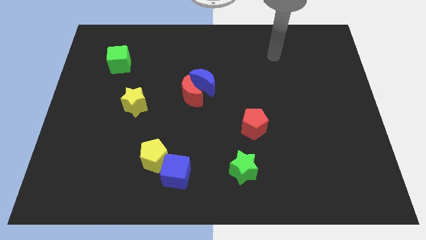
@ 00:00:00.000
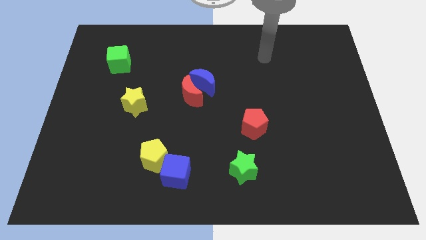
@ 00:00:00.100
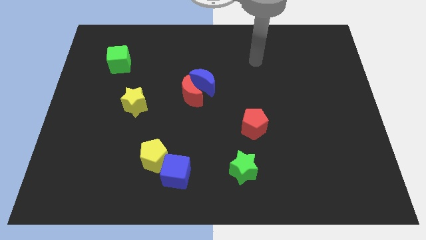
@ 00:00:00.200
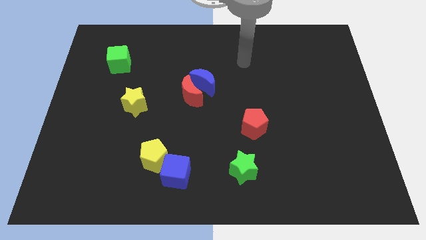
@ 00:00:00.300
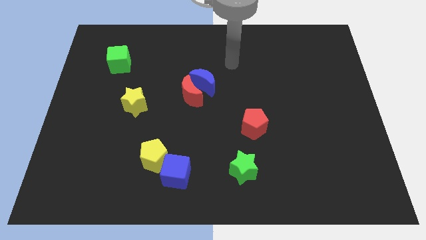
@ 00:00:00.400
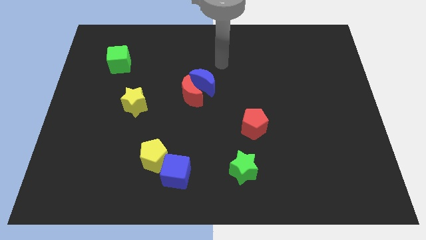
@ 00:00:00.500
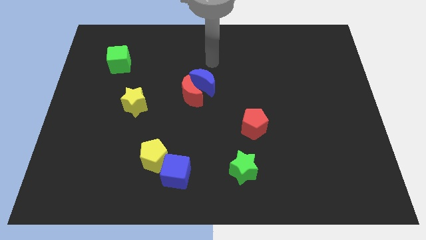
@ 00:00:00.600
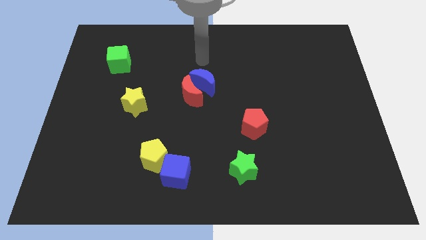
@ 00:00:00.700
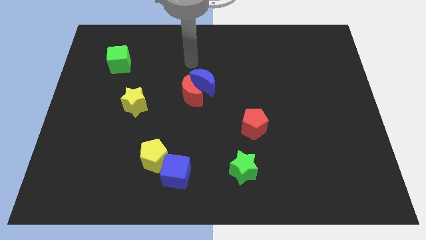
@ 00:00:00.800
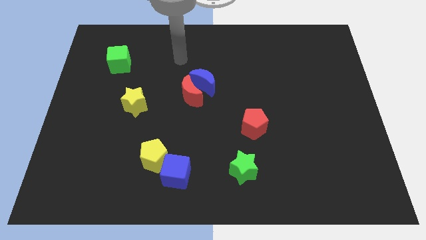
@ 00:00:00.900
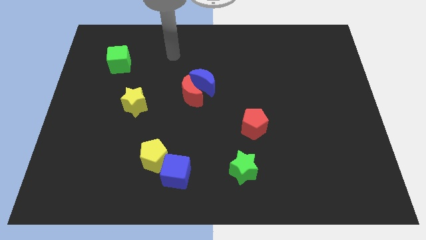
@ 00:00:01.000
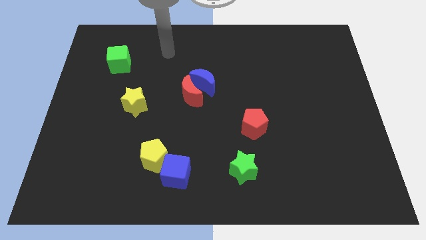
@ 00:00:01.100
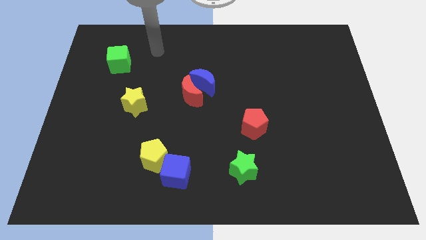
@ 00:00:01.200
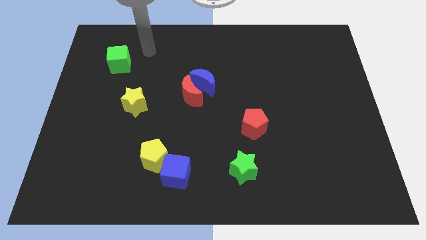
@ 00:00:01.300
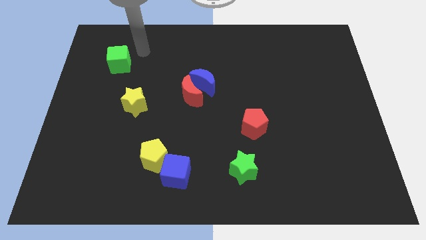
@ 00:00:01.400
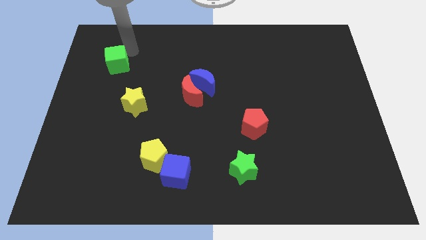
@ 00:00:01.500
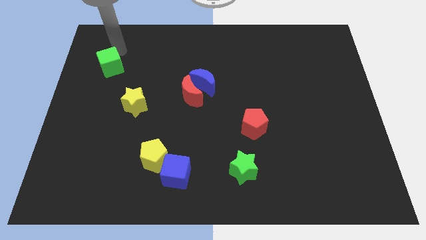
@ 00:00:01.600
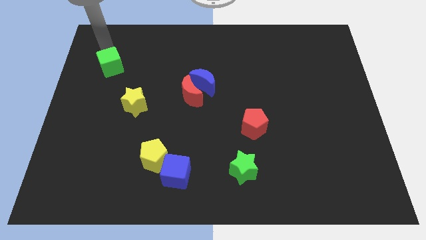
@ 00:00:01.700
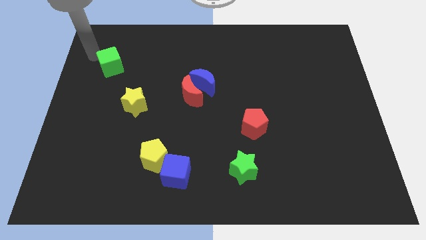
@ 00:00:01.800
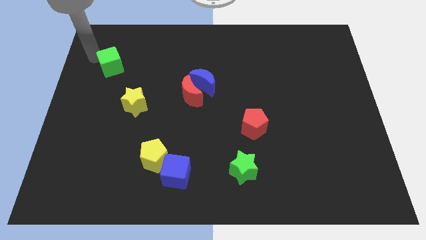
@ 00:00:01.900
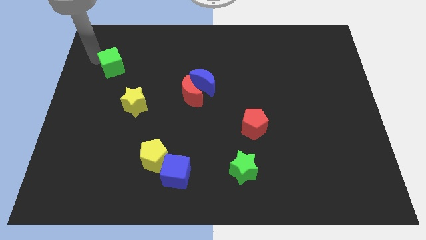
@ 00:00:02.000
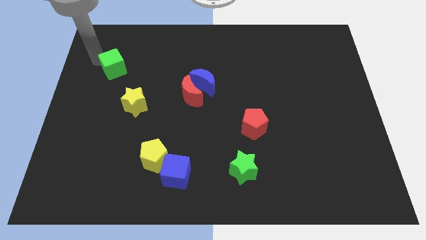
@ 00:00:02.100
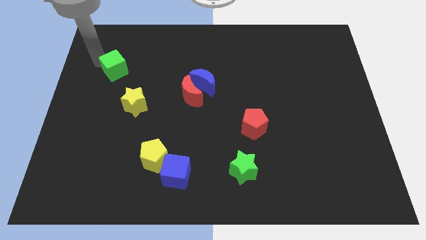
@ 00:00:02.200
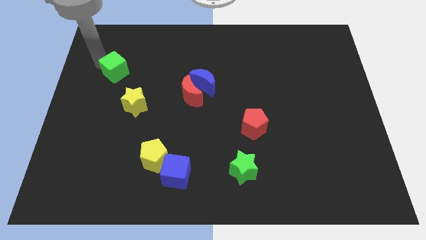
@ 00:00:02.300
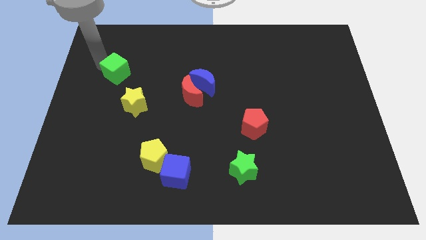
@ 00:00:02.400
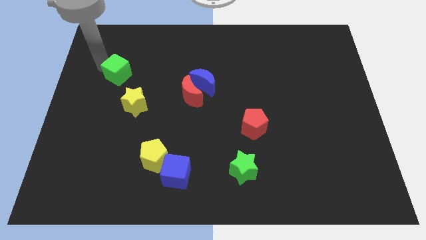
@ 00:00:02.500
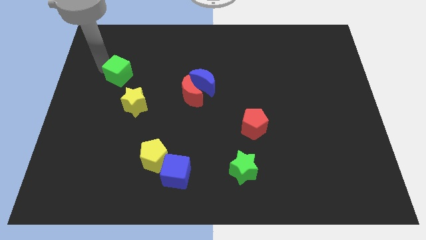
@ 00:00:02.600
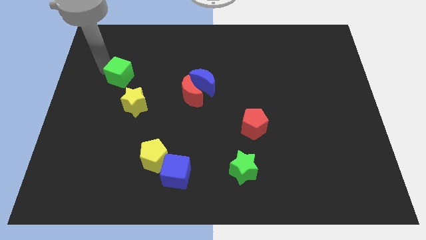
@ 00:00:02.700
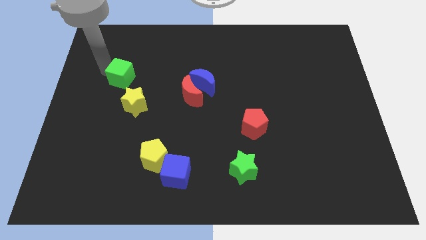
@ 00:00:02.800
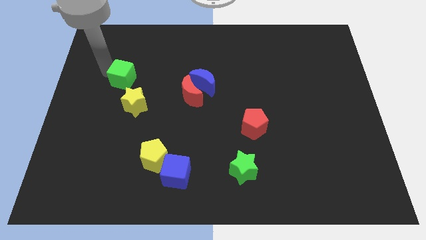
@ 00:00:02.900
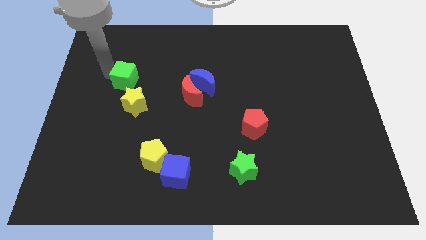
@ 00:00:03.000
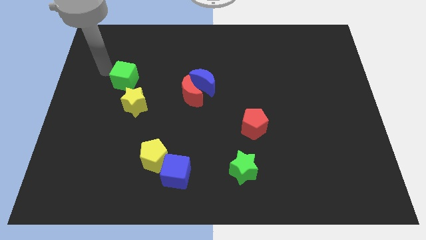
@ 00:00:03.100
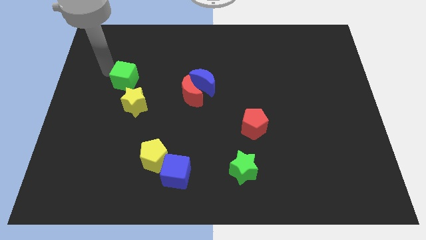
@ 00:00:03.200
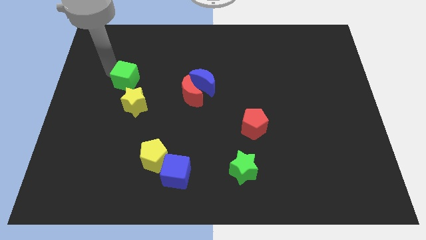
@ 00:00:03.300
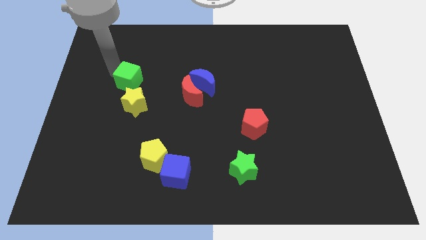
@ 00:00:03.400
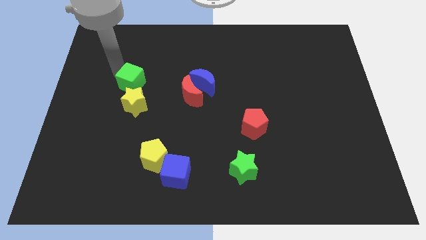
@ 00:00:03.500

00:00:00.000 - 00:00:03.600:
slightly move the green cube down and right

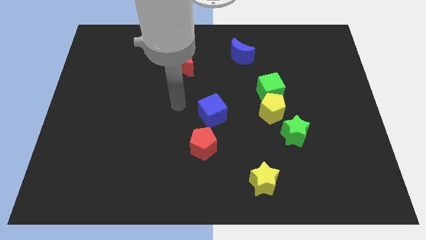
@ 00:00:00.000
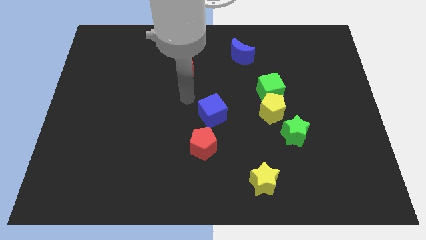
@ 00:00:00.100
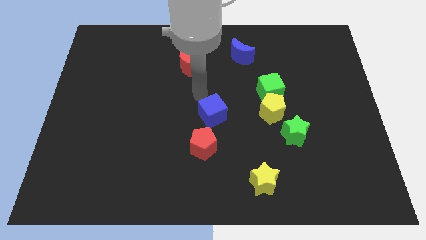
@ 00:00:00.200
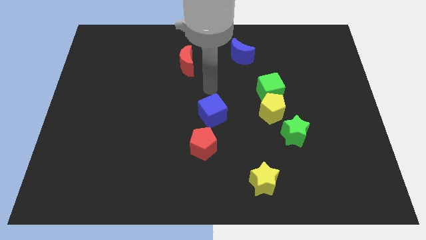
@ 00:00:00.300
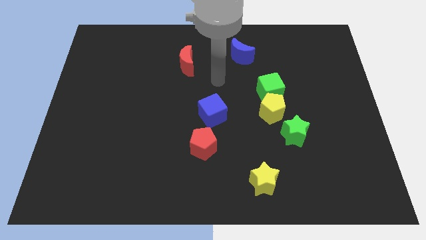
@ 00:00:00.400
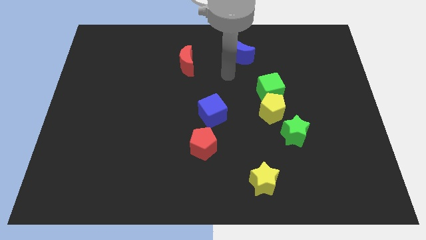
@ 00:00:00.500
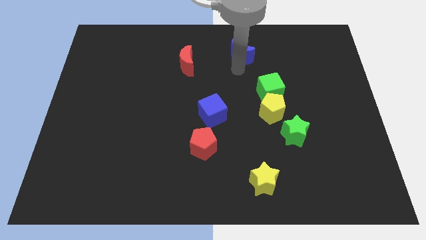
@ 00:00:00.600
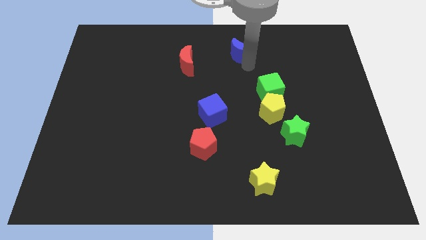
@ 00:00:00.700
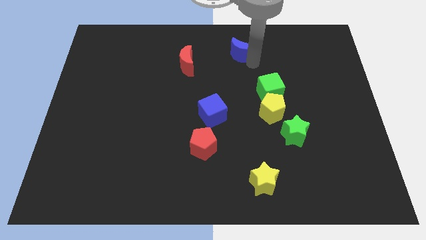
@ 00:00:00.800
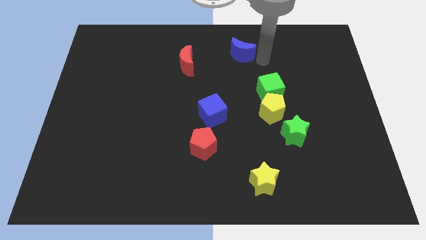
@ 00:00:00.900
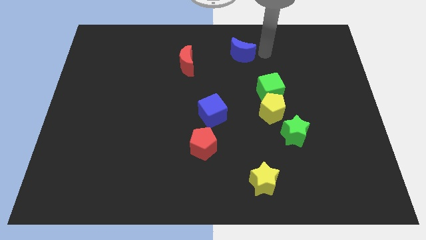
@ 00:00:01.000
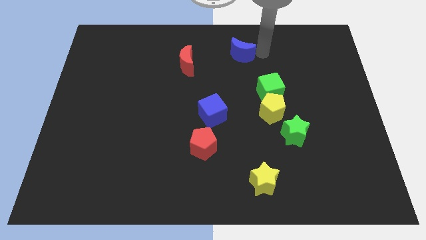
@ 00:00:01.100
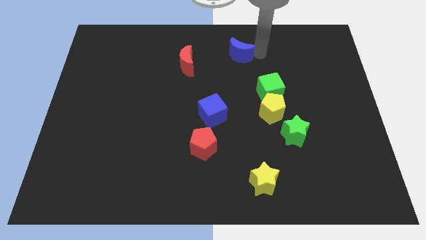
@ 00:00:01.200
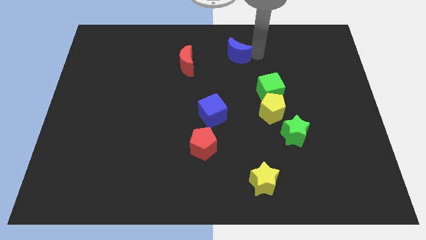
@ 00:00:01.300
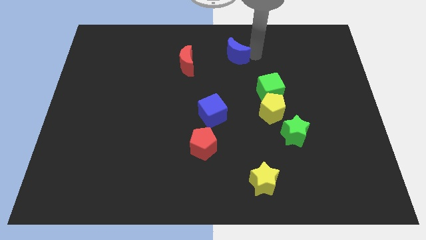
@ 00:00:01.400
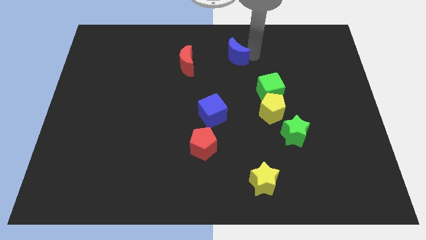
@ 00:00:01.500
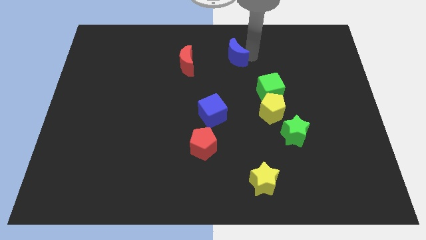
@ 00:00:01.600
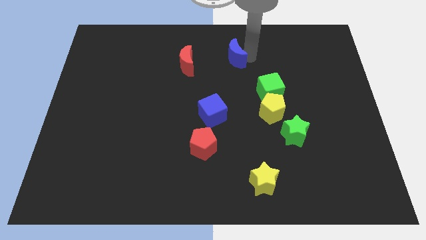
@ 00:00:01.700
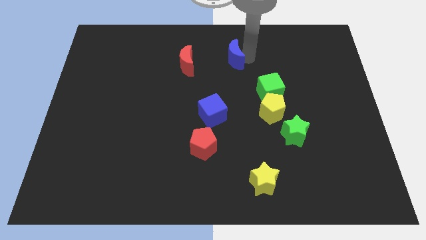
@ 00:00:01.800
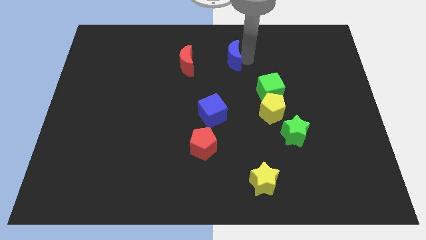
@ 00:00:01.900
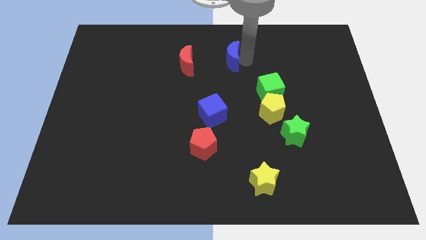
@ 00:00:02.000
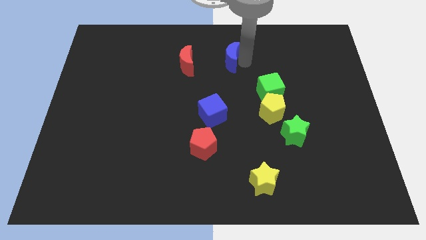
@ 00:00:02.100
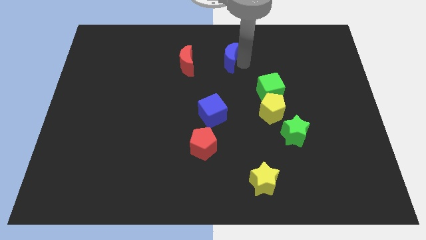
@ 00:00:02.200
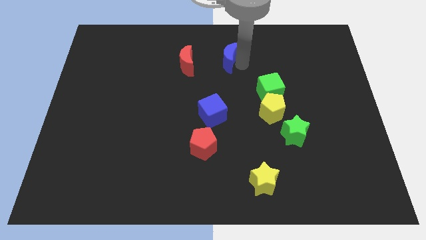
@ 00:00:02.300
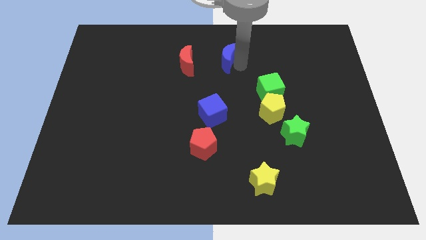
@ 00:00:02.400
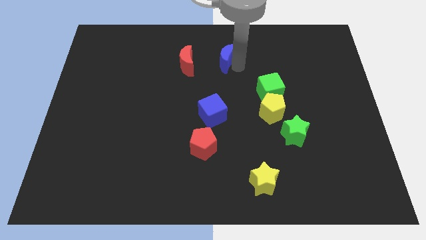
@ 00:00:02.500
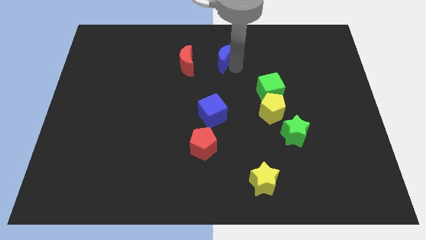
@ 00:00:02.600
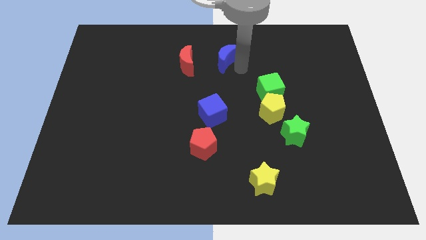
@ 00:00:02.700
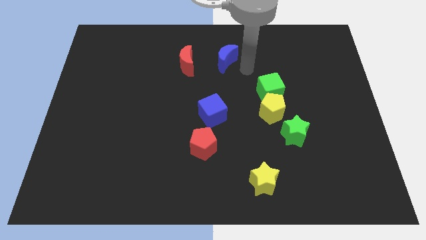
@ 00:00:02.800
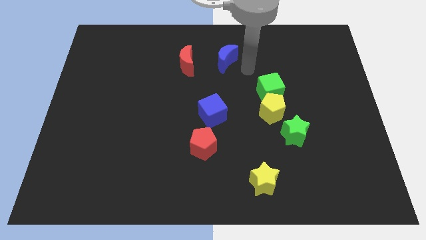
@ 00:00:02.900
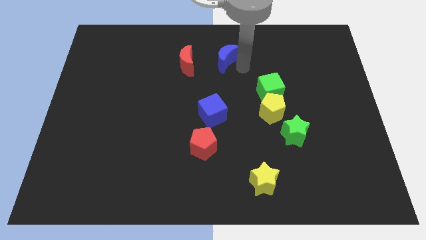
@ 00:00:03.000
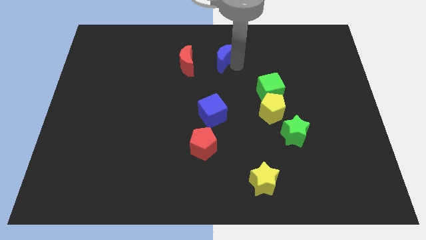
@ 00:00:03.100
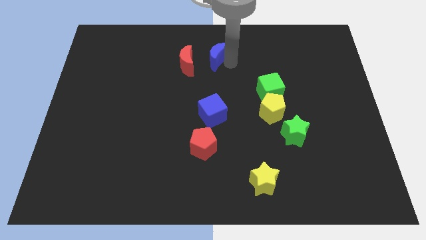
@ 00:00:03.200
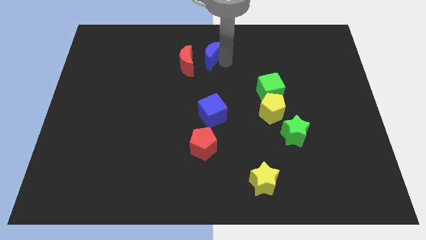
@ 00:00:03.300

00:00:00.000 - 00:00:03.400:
slide the blue moon to the left a little

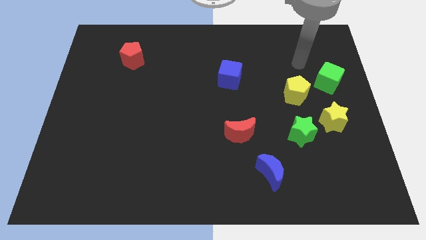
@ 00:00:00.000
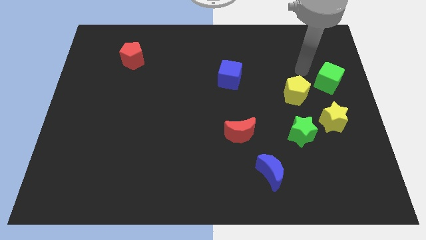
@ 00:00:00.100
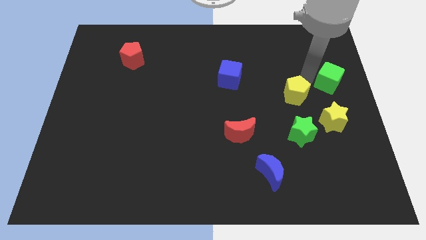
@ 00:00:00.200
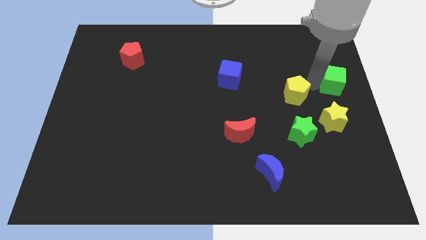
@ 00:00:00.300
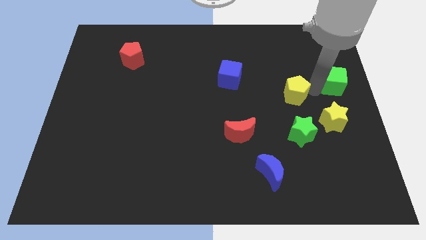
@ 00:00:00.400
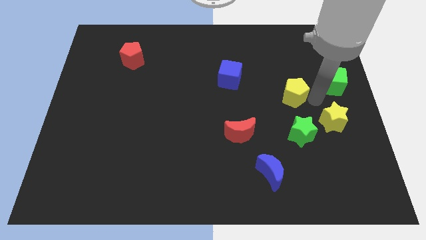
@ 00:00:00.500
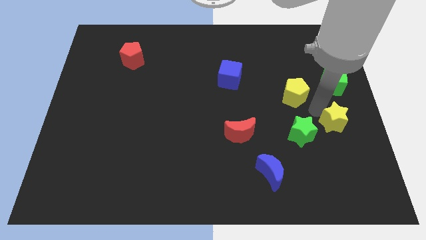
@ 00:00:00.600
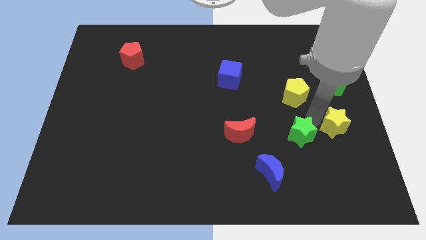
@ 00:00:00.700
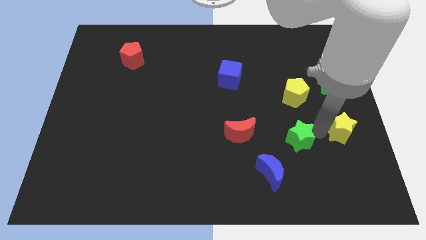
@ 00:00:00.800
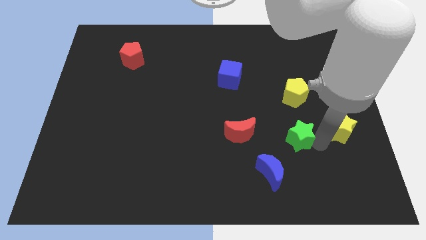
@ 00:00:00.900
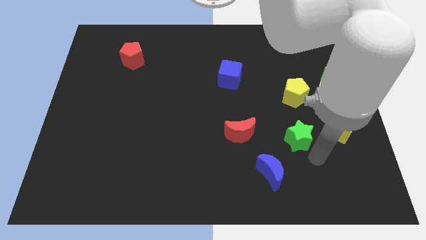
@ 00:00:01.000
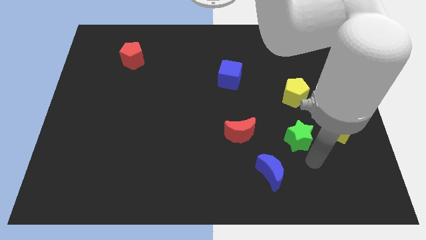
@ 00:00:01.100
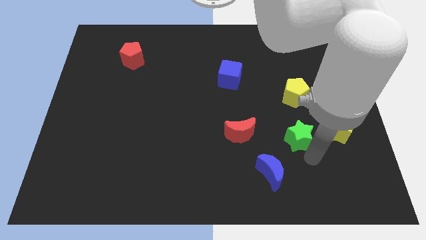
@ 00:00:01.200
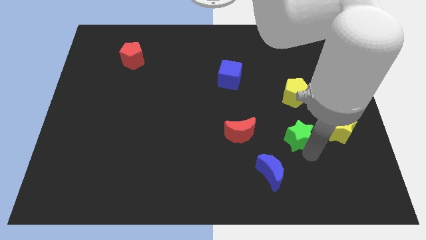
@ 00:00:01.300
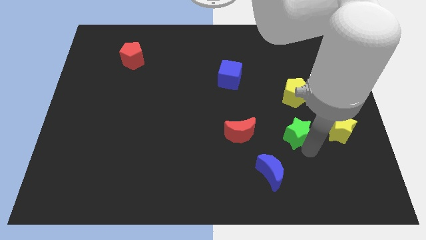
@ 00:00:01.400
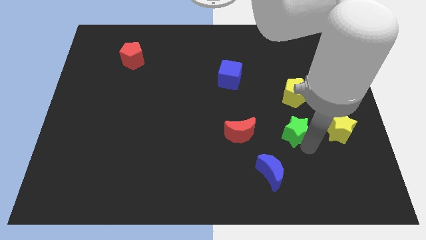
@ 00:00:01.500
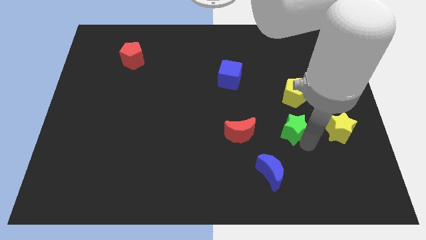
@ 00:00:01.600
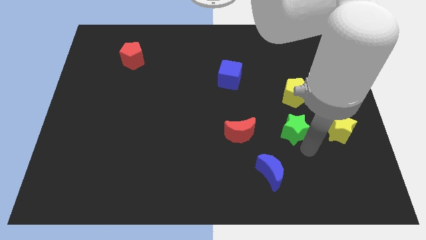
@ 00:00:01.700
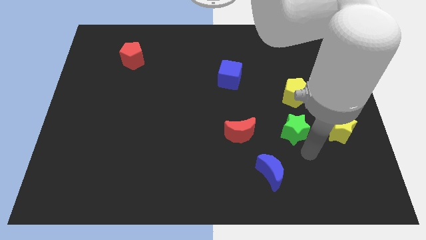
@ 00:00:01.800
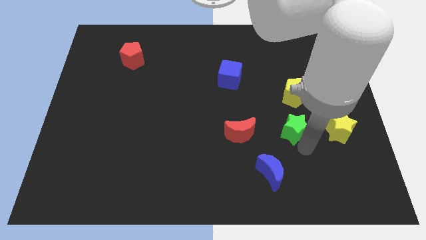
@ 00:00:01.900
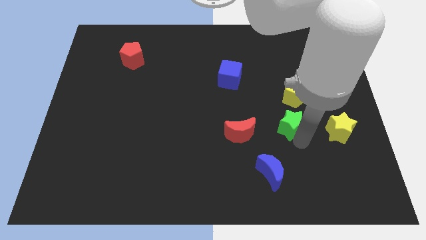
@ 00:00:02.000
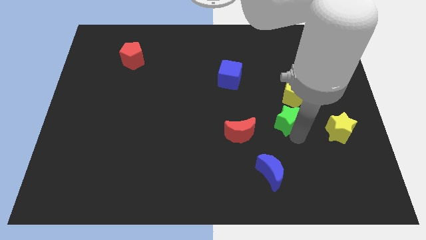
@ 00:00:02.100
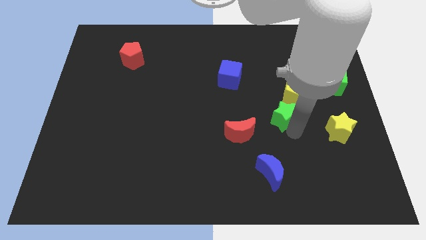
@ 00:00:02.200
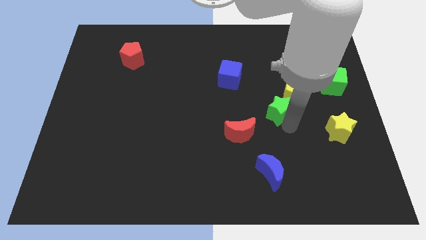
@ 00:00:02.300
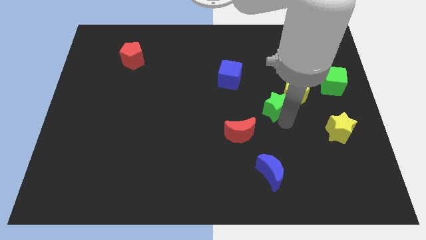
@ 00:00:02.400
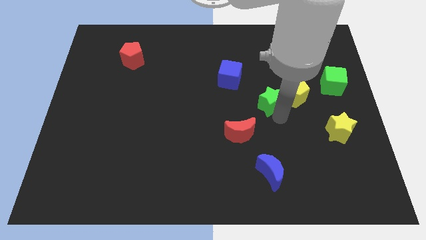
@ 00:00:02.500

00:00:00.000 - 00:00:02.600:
slightly move the green star upwards
